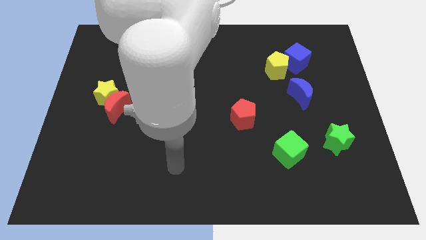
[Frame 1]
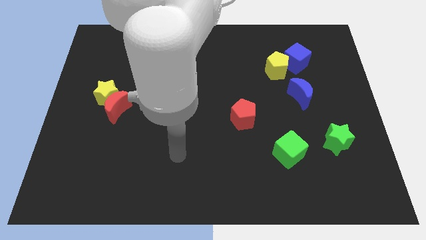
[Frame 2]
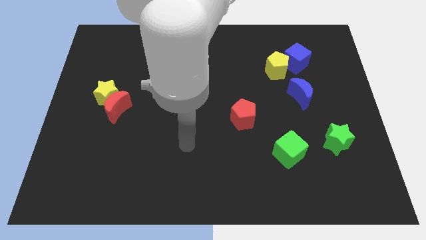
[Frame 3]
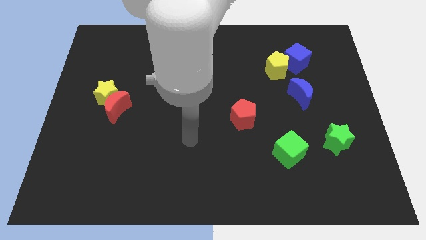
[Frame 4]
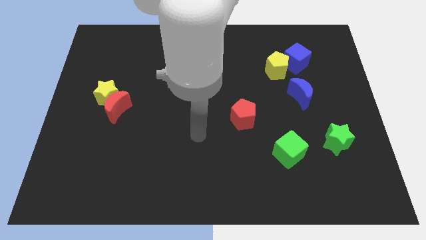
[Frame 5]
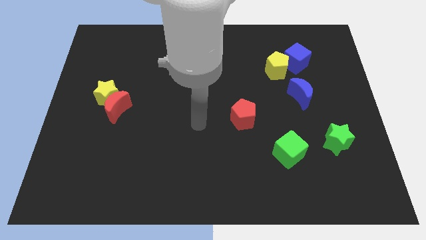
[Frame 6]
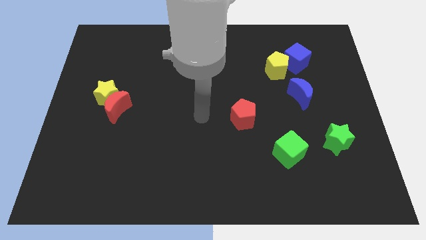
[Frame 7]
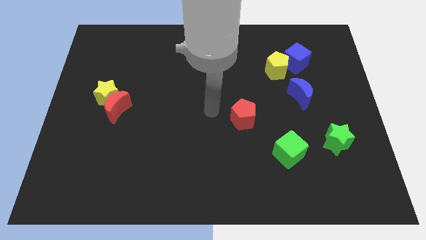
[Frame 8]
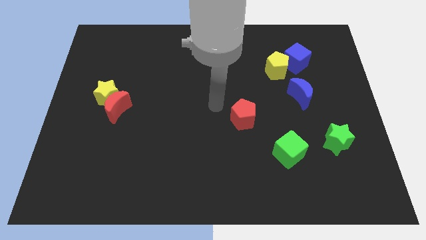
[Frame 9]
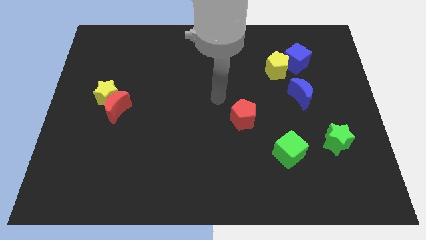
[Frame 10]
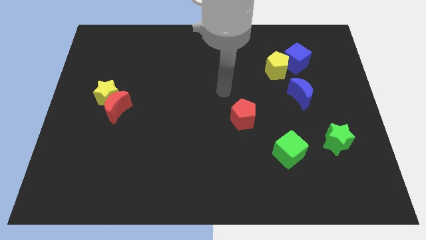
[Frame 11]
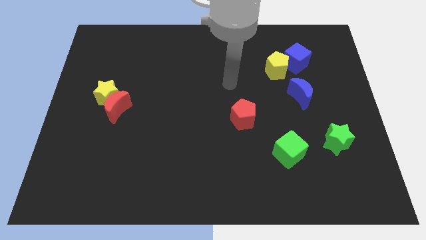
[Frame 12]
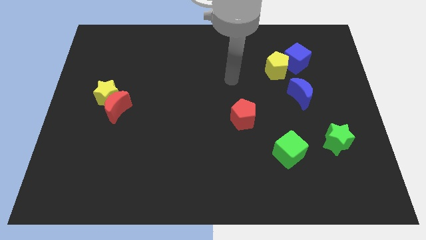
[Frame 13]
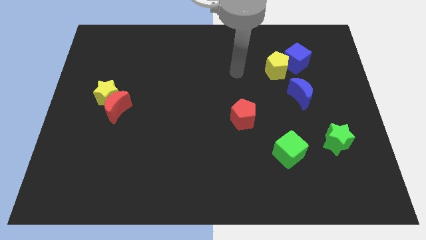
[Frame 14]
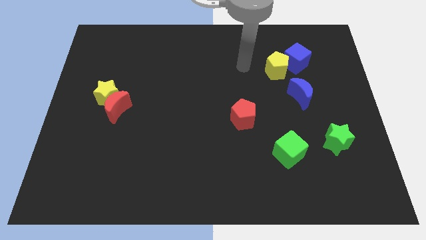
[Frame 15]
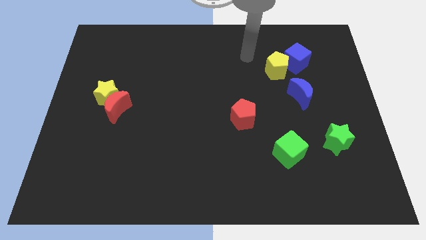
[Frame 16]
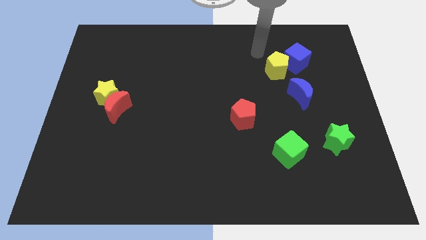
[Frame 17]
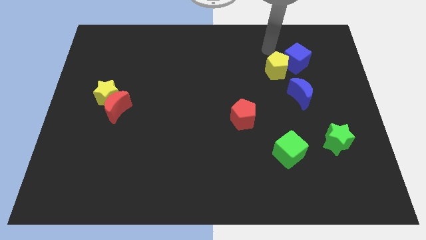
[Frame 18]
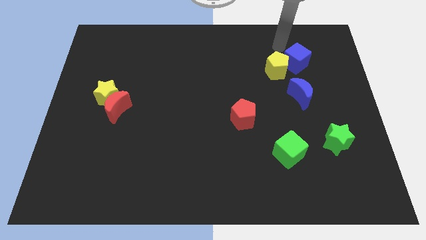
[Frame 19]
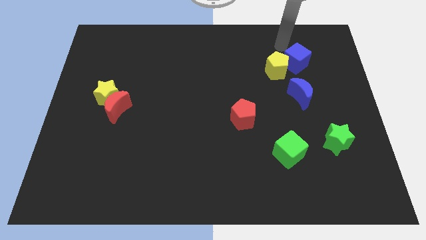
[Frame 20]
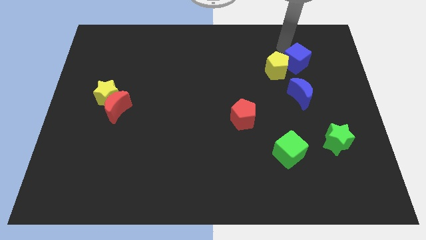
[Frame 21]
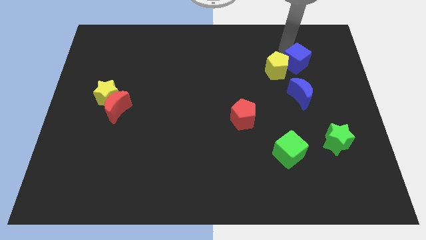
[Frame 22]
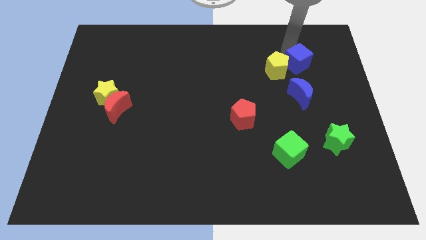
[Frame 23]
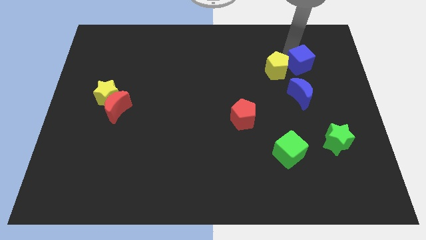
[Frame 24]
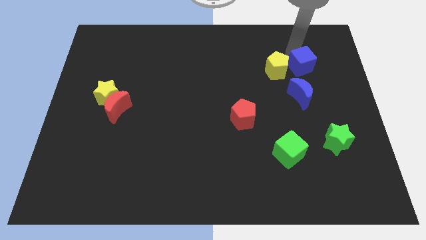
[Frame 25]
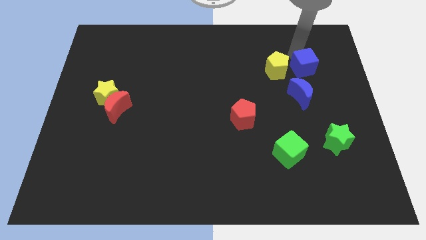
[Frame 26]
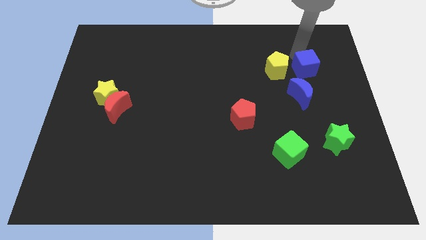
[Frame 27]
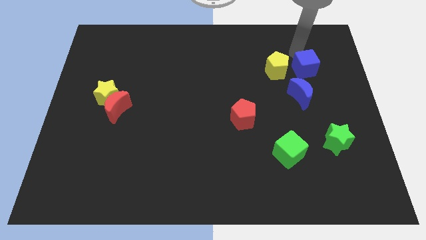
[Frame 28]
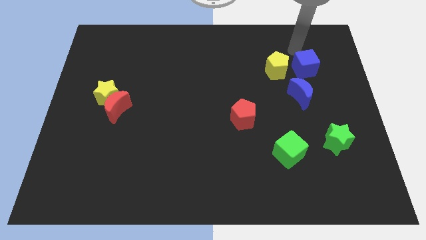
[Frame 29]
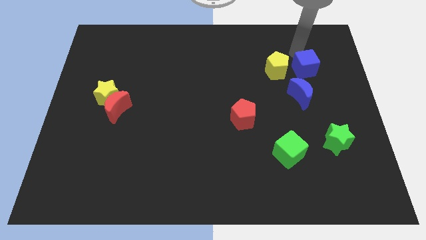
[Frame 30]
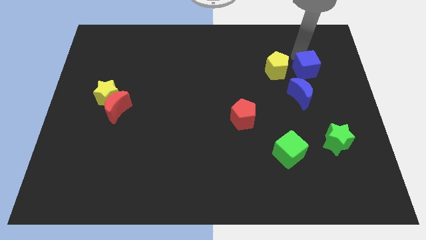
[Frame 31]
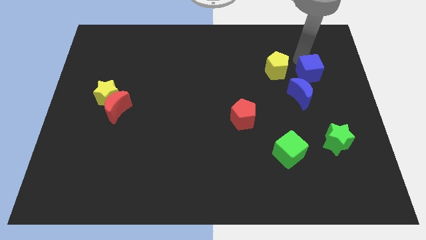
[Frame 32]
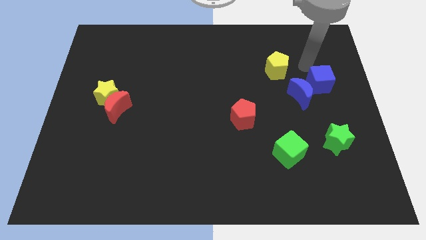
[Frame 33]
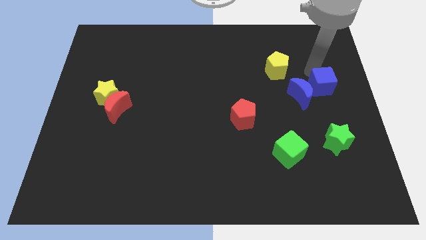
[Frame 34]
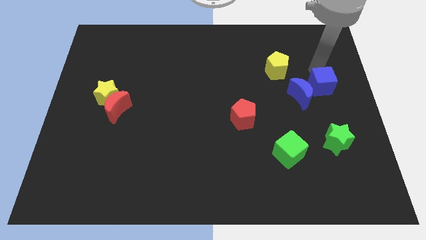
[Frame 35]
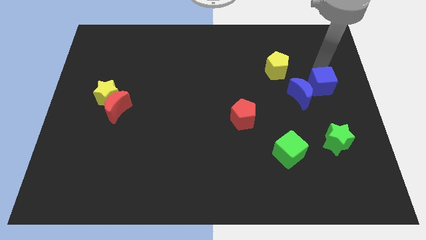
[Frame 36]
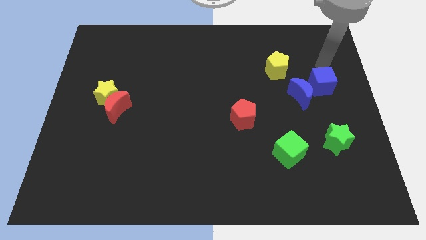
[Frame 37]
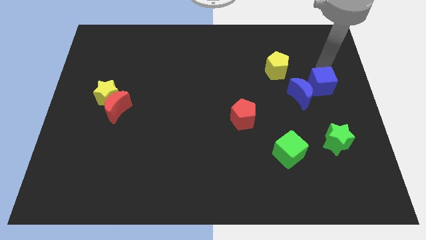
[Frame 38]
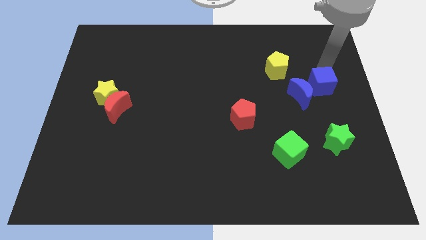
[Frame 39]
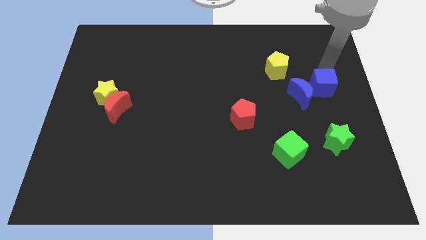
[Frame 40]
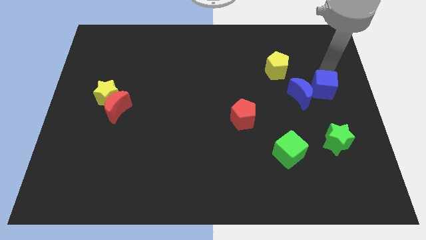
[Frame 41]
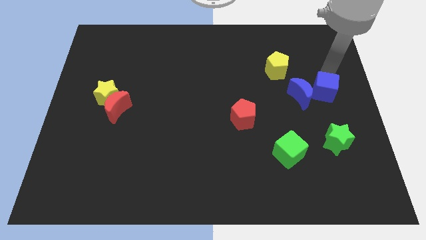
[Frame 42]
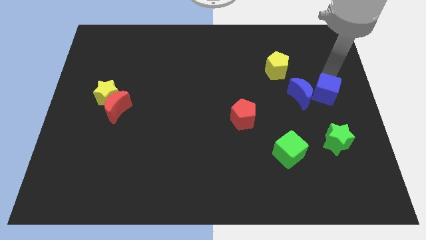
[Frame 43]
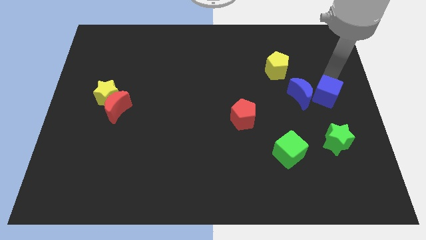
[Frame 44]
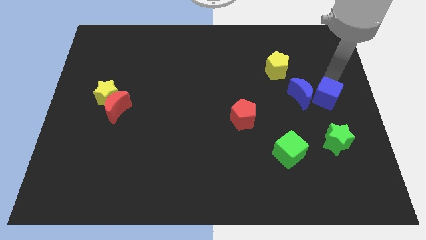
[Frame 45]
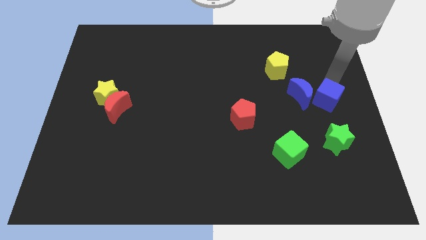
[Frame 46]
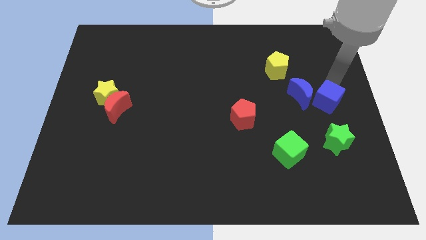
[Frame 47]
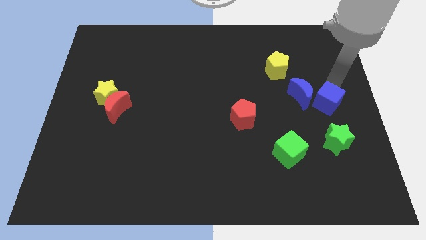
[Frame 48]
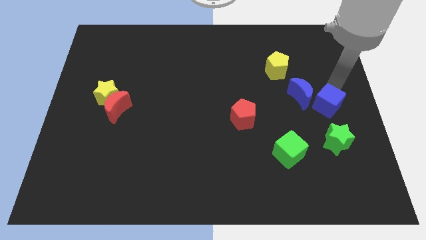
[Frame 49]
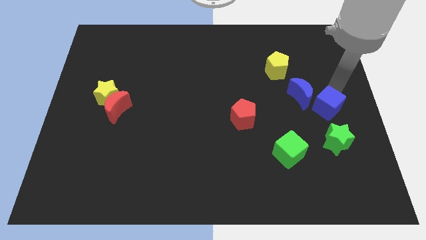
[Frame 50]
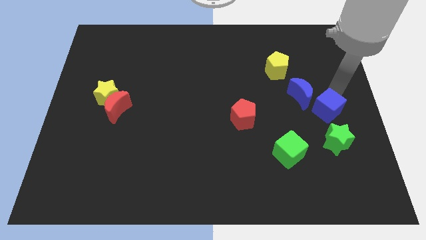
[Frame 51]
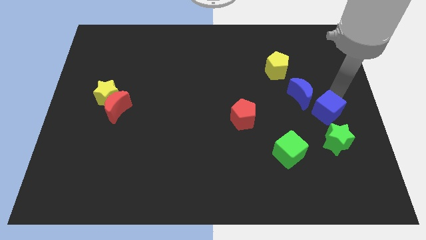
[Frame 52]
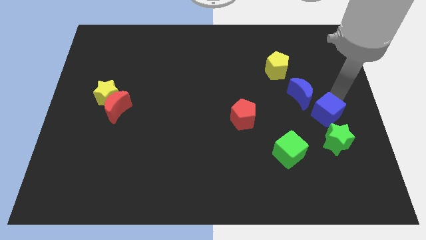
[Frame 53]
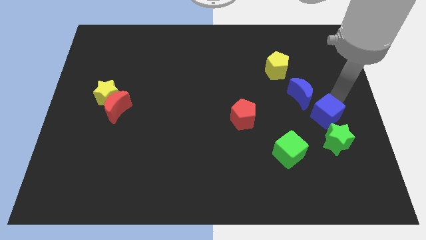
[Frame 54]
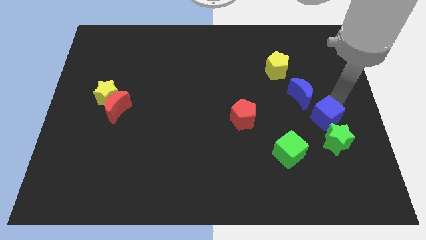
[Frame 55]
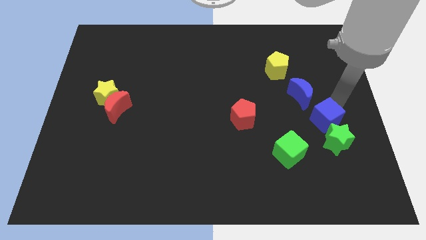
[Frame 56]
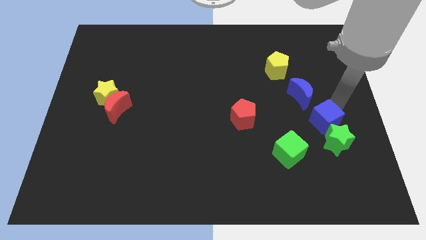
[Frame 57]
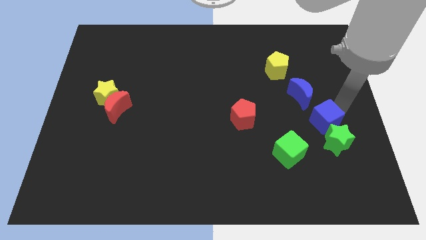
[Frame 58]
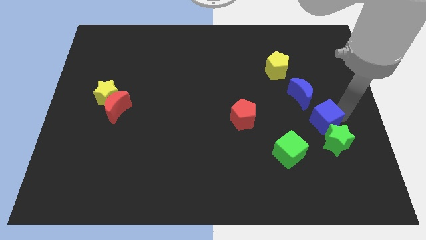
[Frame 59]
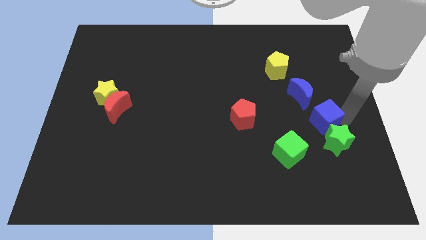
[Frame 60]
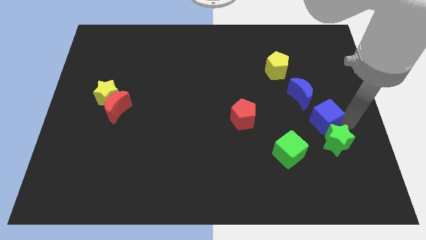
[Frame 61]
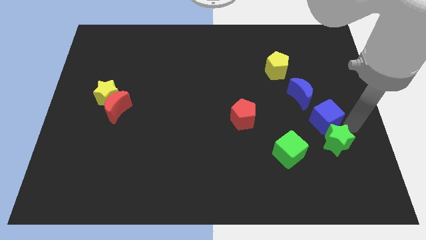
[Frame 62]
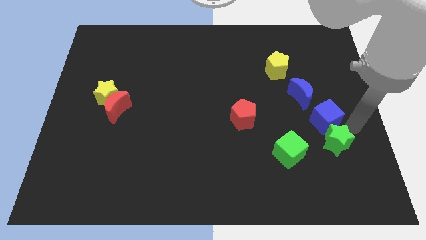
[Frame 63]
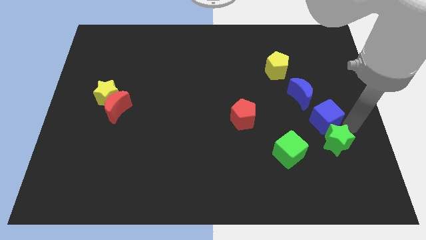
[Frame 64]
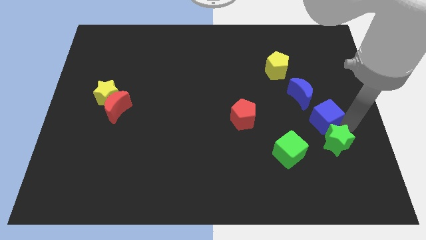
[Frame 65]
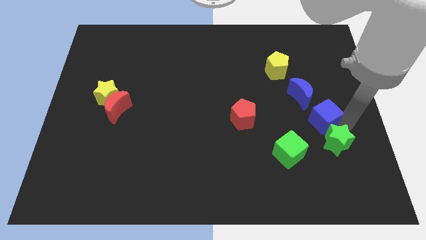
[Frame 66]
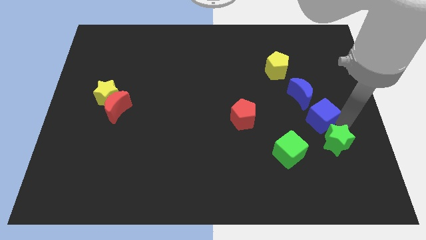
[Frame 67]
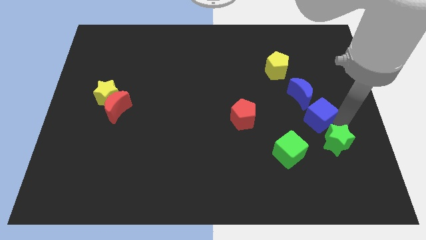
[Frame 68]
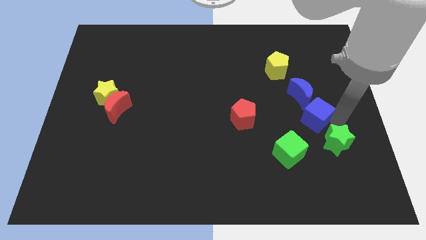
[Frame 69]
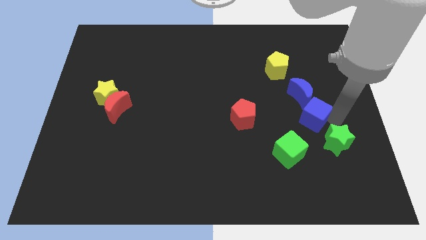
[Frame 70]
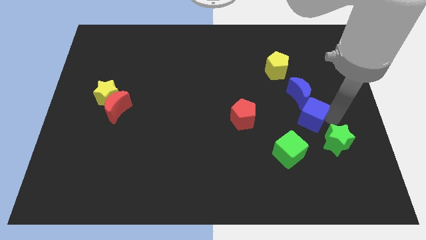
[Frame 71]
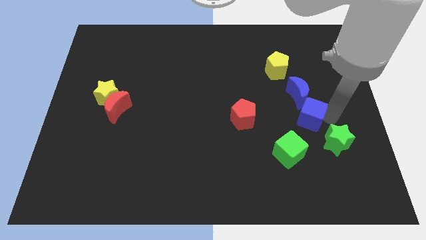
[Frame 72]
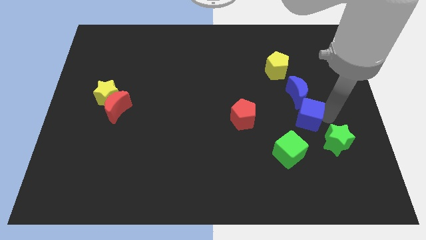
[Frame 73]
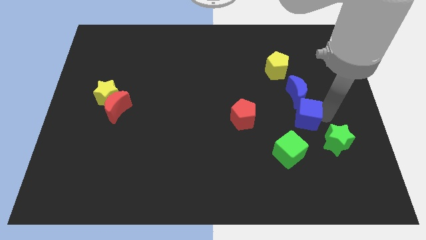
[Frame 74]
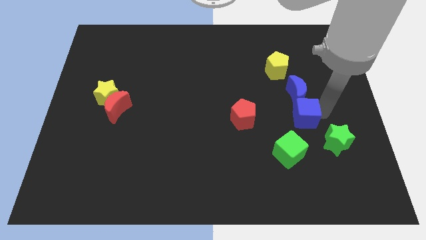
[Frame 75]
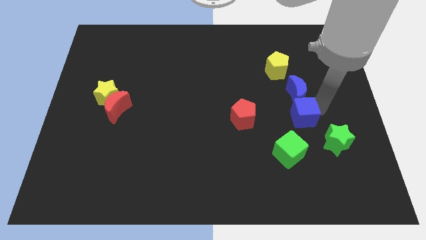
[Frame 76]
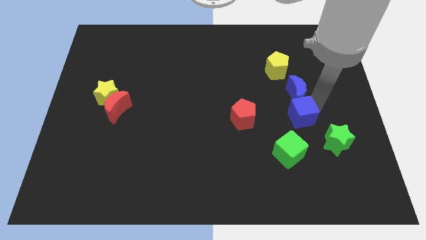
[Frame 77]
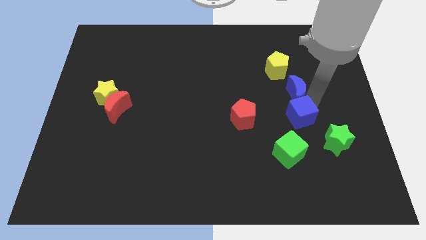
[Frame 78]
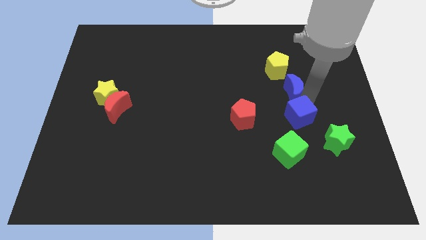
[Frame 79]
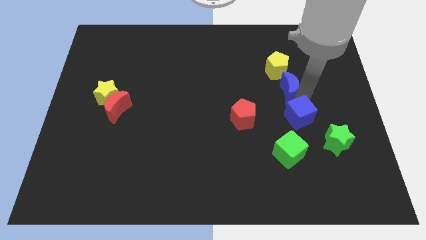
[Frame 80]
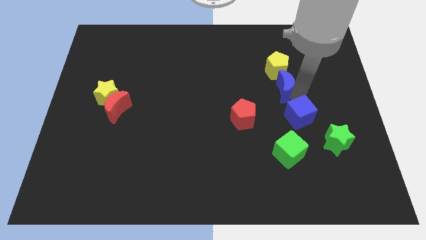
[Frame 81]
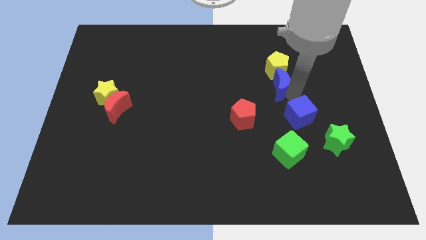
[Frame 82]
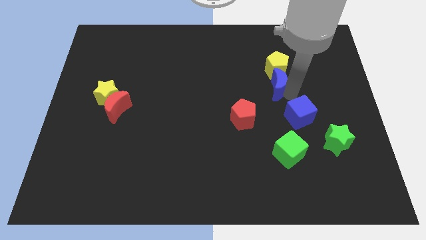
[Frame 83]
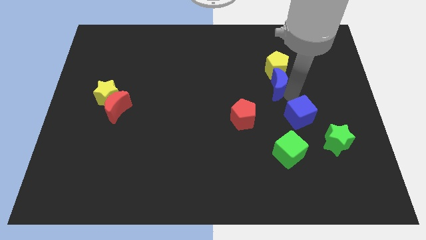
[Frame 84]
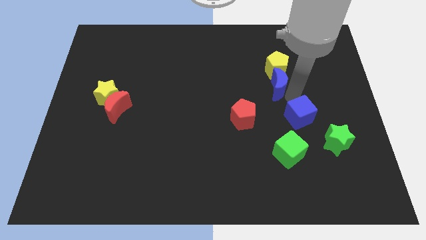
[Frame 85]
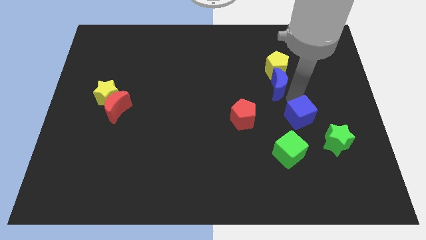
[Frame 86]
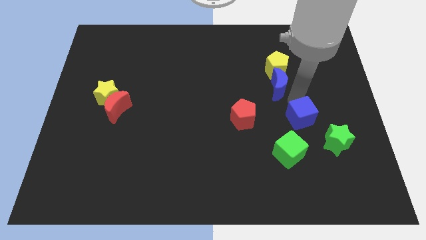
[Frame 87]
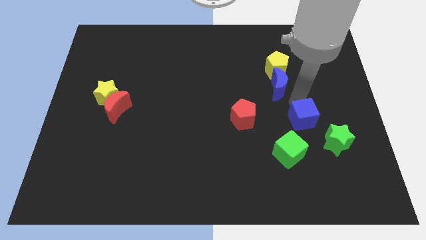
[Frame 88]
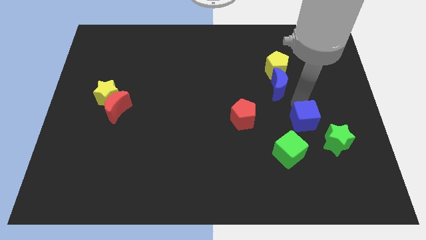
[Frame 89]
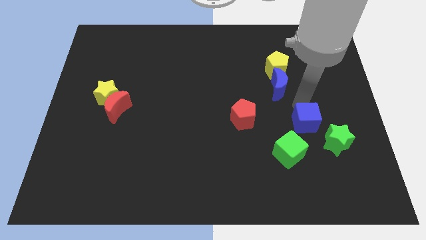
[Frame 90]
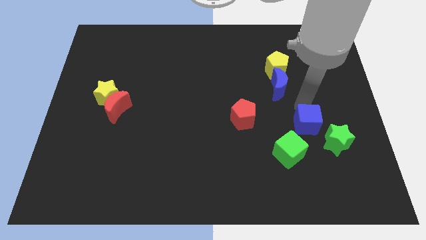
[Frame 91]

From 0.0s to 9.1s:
push the blue cube down
